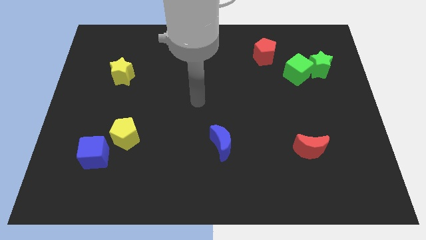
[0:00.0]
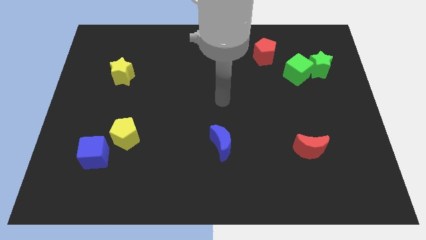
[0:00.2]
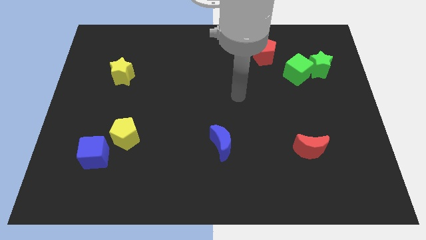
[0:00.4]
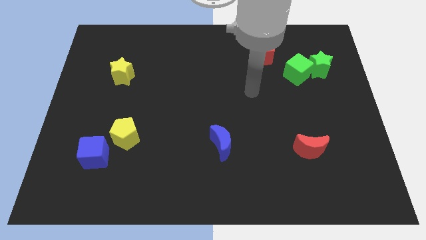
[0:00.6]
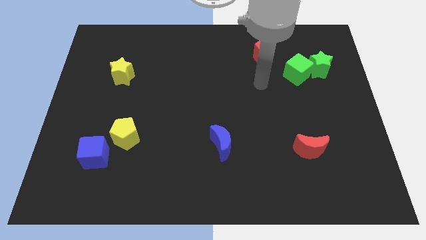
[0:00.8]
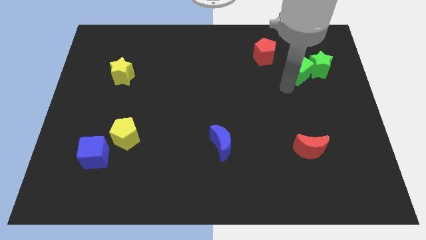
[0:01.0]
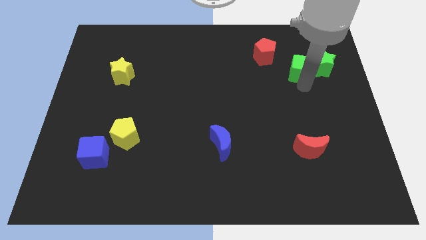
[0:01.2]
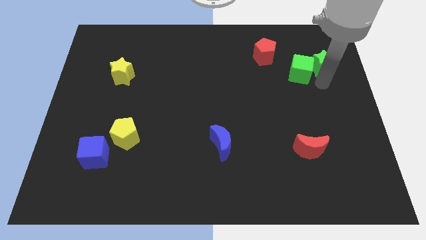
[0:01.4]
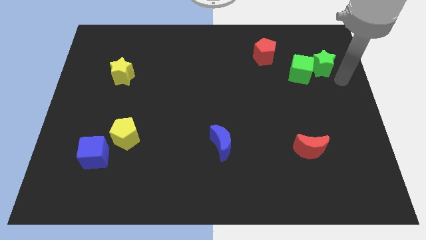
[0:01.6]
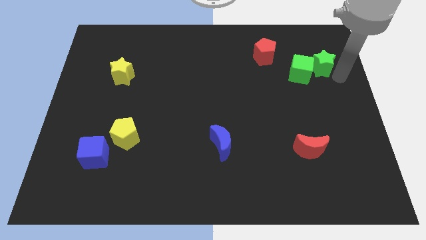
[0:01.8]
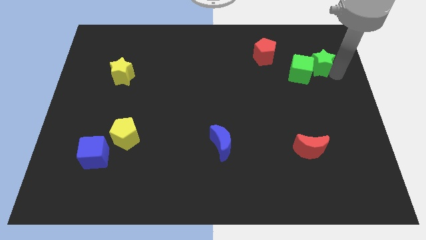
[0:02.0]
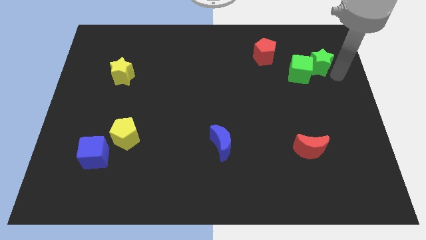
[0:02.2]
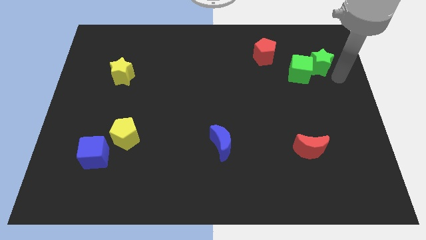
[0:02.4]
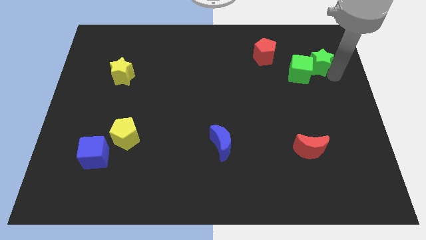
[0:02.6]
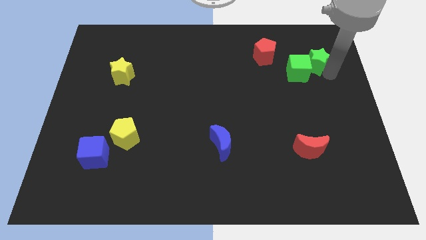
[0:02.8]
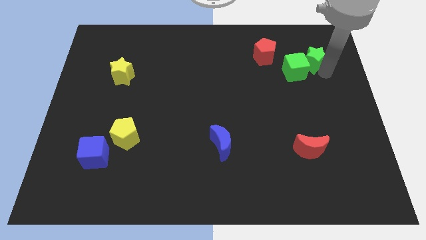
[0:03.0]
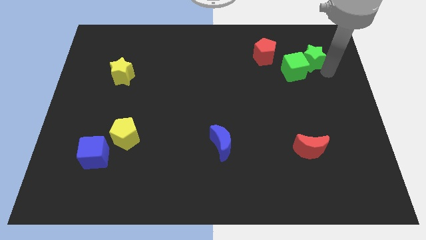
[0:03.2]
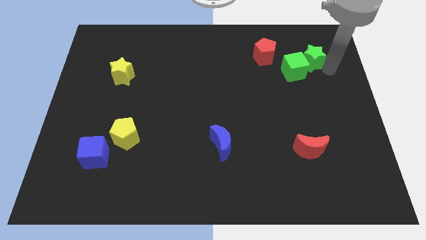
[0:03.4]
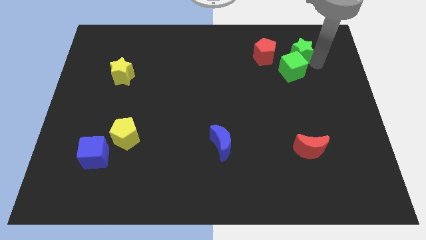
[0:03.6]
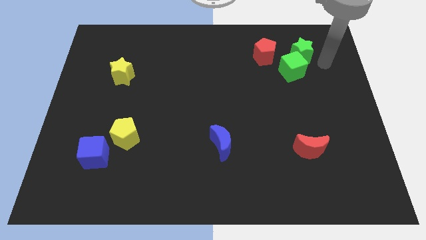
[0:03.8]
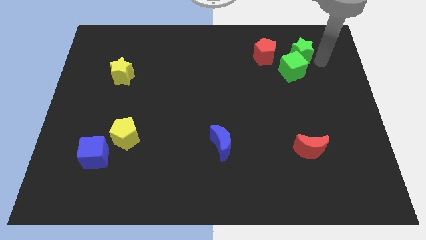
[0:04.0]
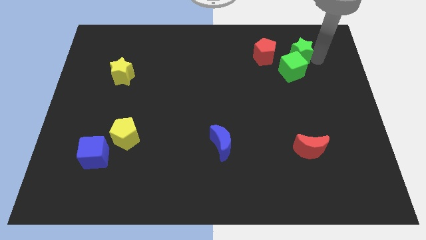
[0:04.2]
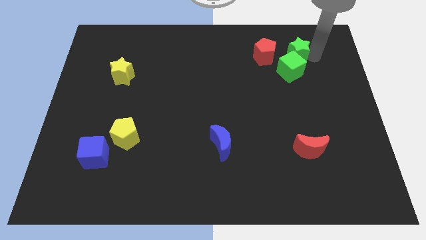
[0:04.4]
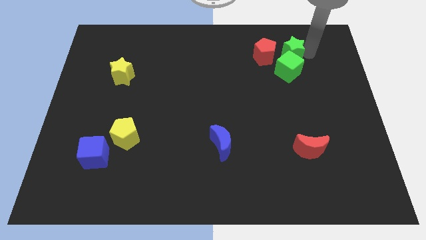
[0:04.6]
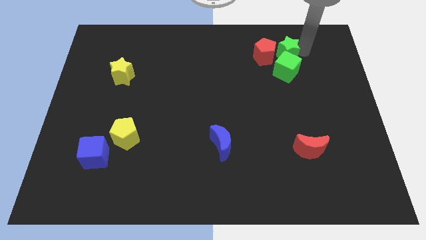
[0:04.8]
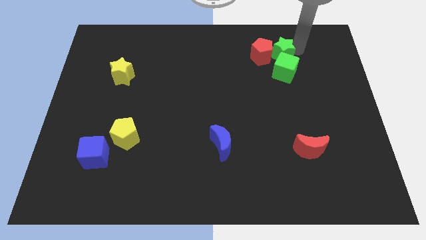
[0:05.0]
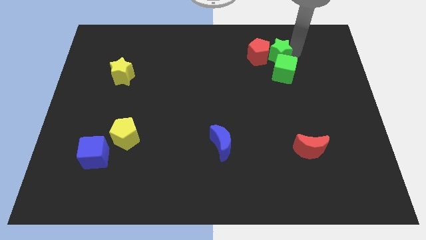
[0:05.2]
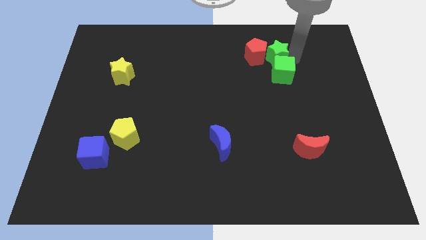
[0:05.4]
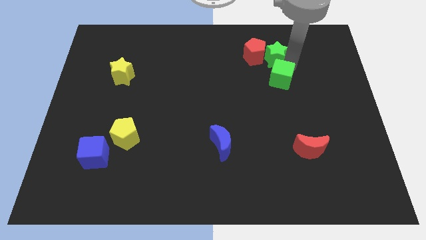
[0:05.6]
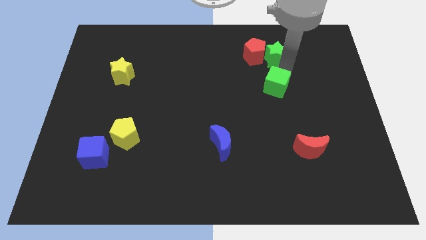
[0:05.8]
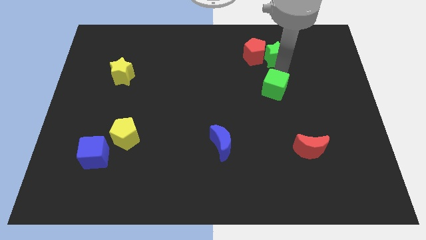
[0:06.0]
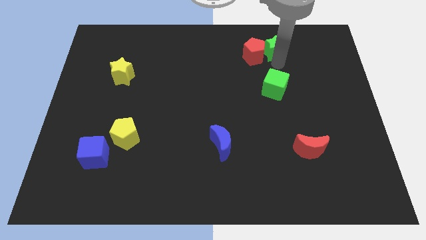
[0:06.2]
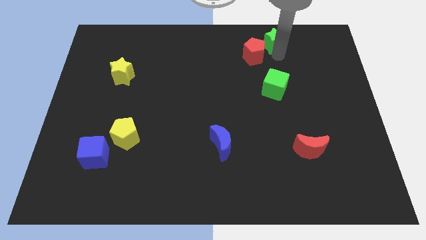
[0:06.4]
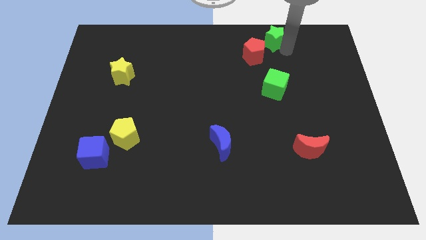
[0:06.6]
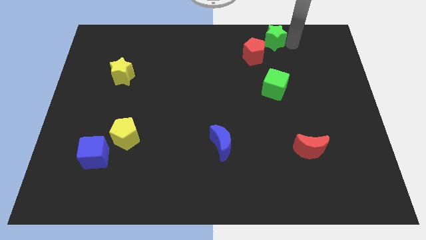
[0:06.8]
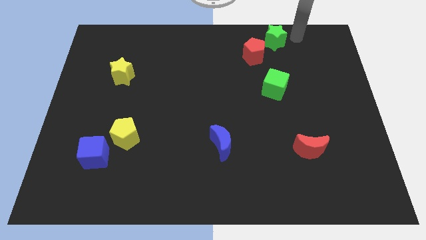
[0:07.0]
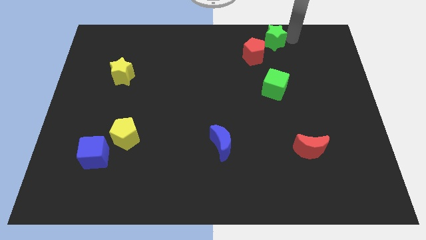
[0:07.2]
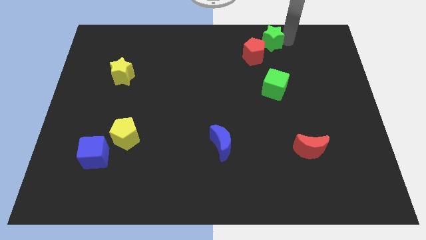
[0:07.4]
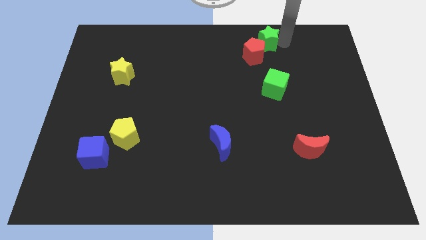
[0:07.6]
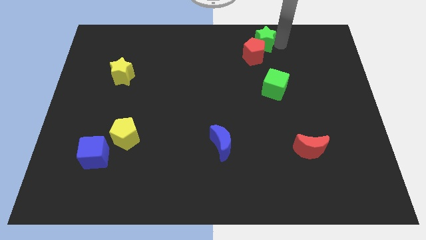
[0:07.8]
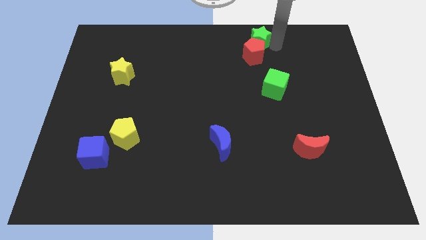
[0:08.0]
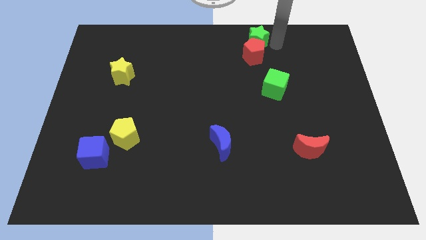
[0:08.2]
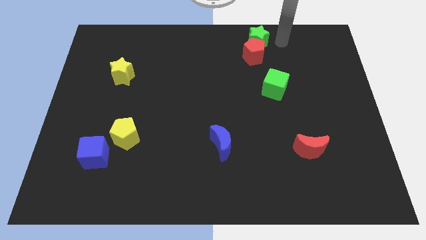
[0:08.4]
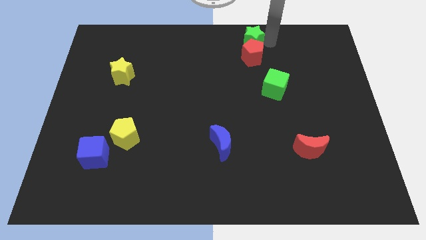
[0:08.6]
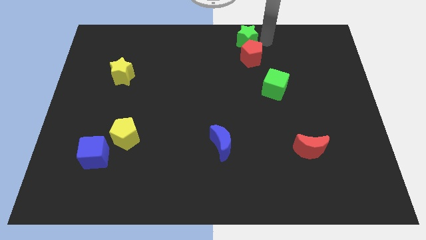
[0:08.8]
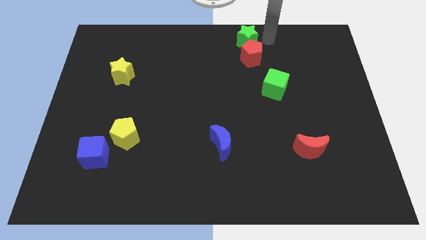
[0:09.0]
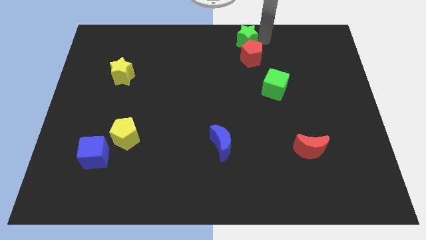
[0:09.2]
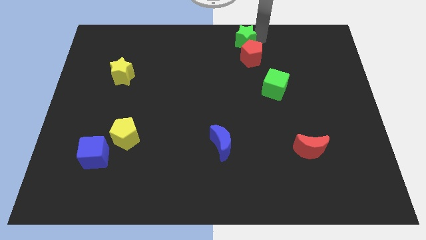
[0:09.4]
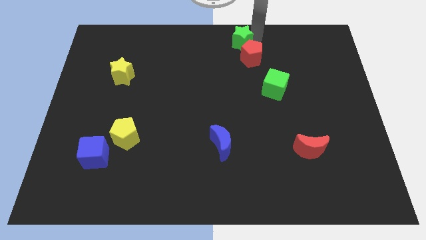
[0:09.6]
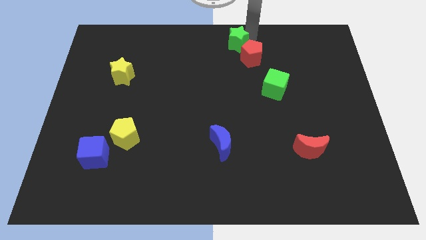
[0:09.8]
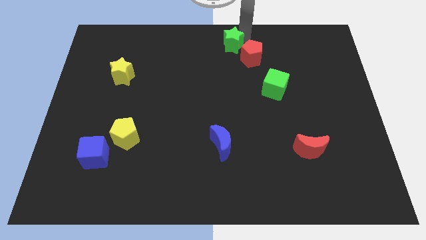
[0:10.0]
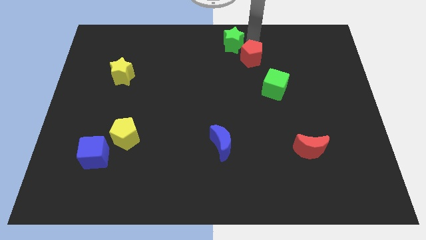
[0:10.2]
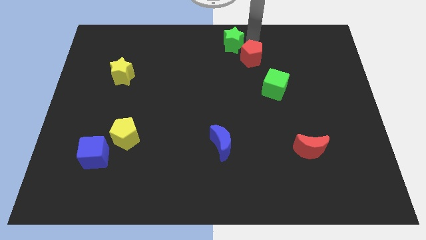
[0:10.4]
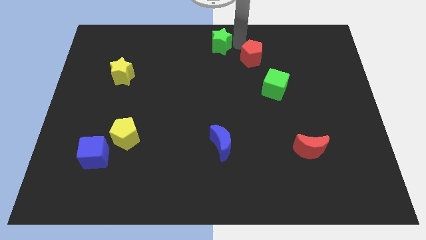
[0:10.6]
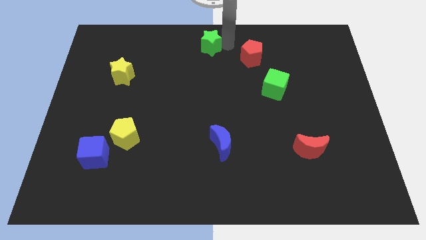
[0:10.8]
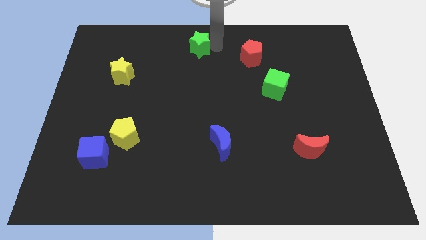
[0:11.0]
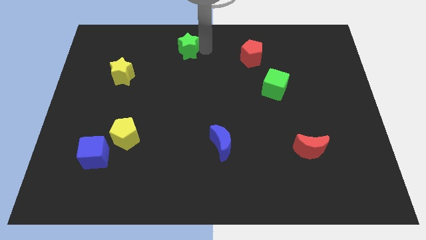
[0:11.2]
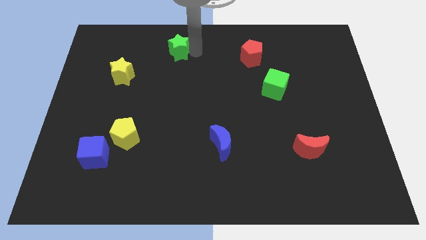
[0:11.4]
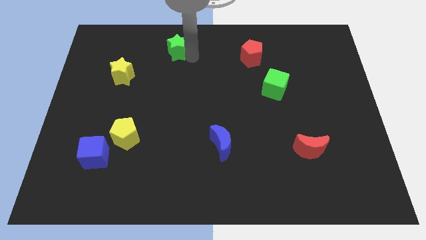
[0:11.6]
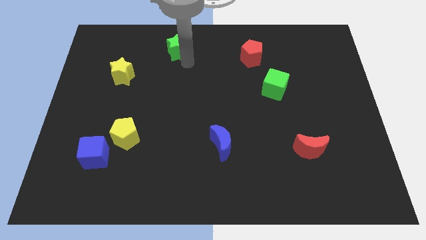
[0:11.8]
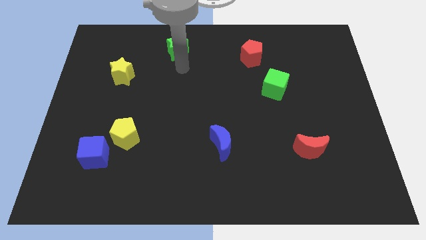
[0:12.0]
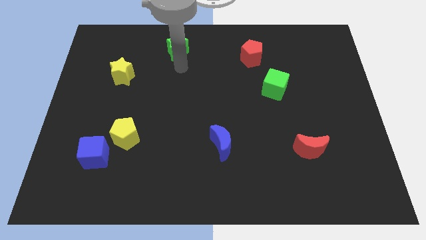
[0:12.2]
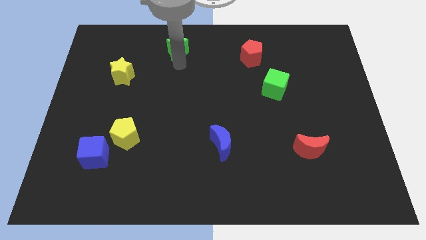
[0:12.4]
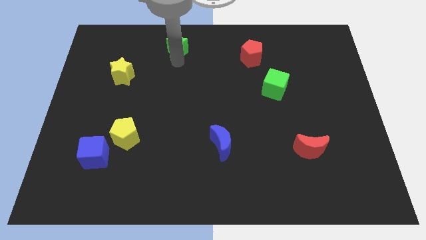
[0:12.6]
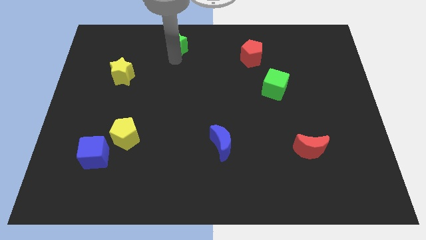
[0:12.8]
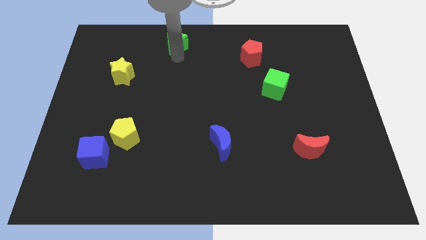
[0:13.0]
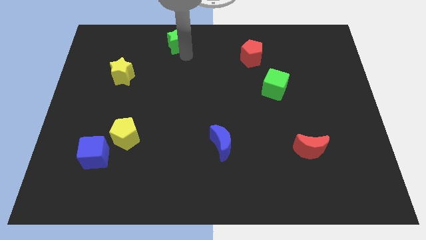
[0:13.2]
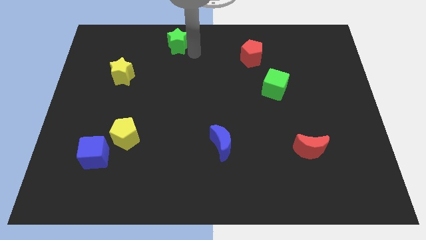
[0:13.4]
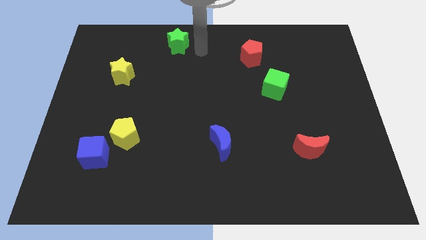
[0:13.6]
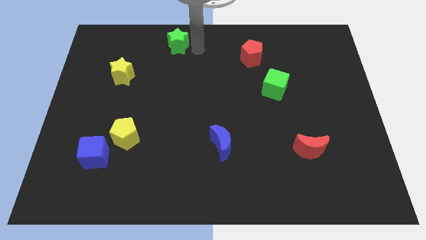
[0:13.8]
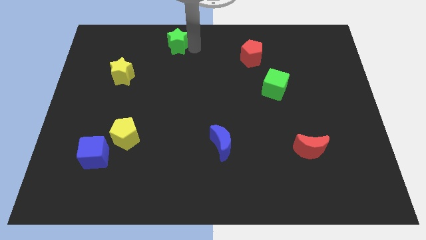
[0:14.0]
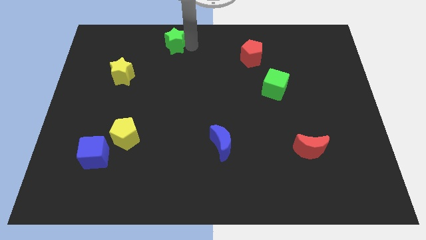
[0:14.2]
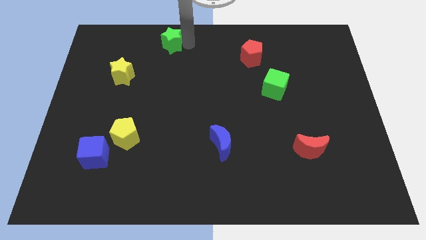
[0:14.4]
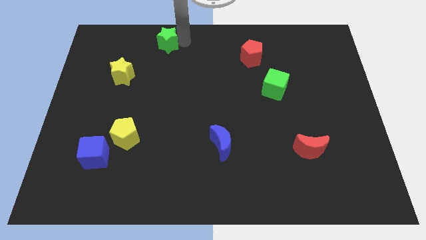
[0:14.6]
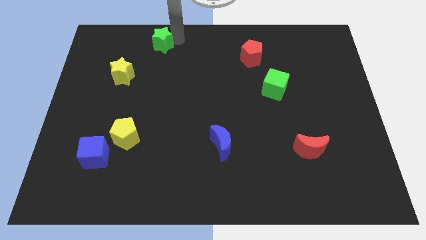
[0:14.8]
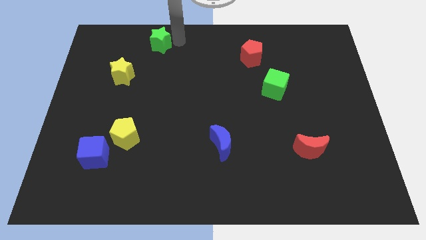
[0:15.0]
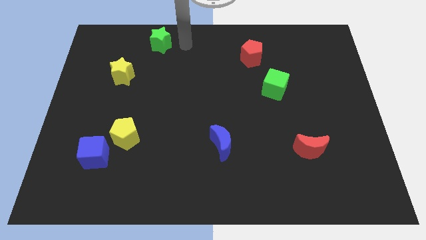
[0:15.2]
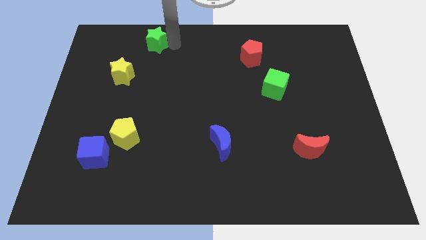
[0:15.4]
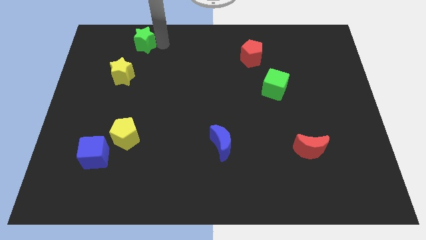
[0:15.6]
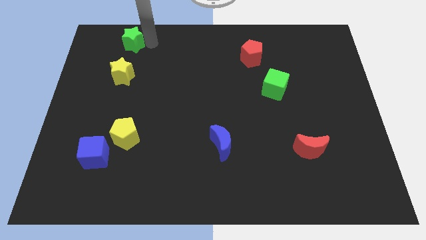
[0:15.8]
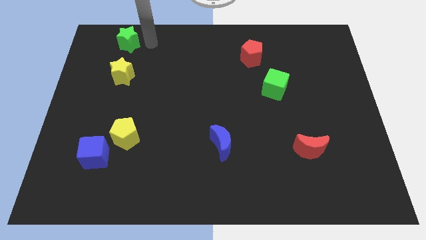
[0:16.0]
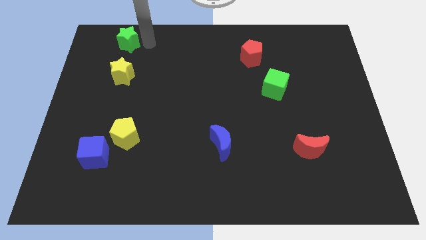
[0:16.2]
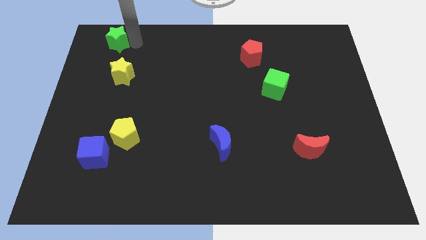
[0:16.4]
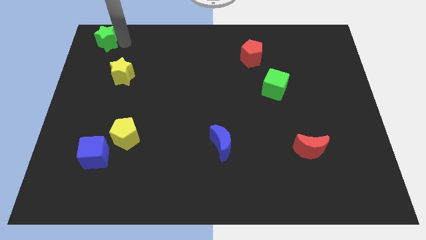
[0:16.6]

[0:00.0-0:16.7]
put the green star to the top left corner
